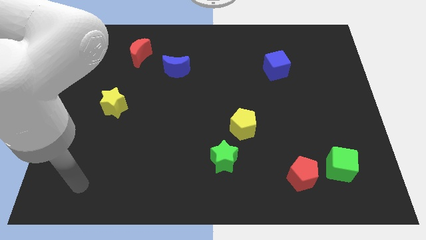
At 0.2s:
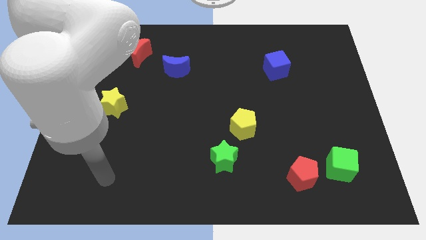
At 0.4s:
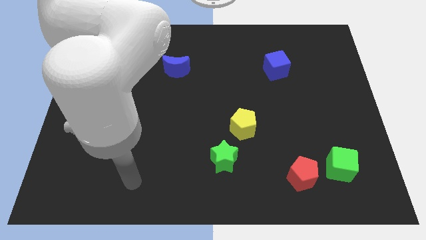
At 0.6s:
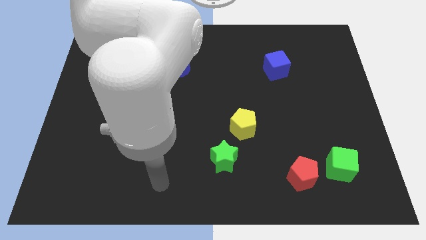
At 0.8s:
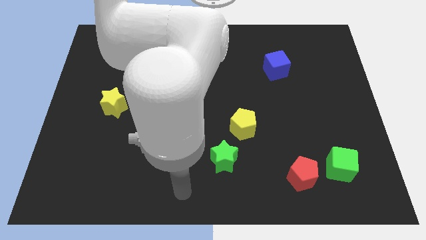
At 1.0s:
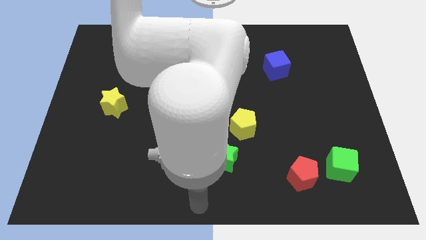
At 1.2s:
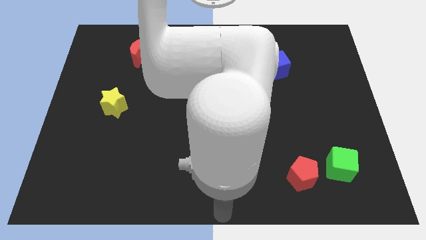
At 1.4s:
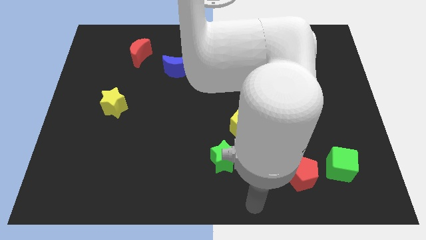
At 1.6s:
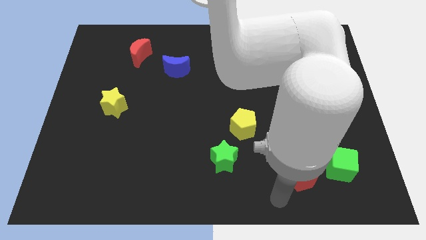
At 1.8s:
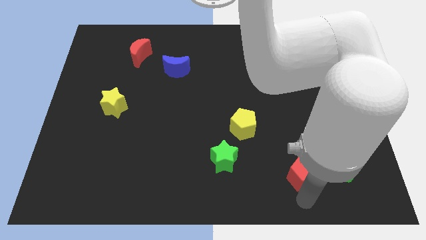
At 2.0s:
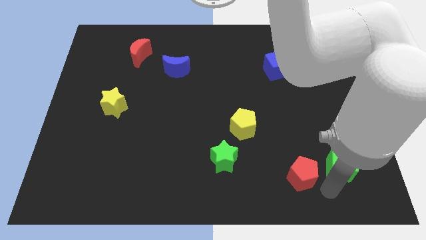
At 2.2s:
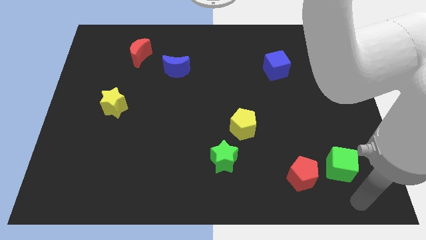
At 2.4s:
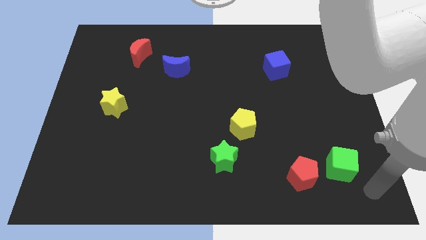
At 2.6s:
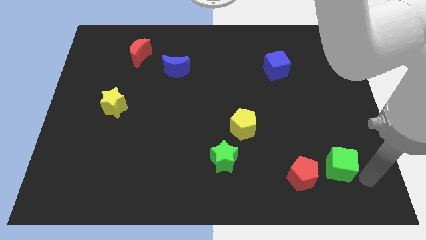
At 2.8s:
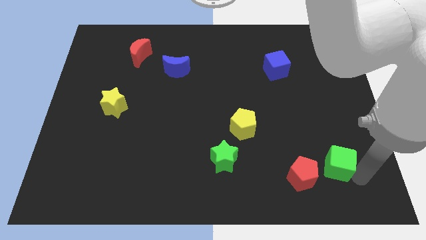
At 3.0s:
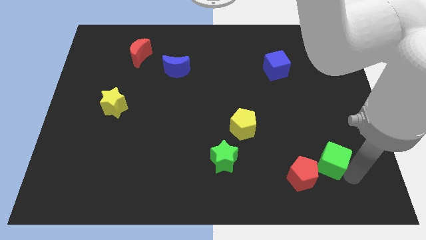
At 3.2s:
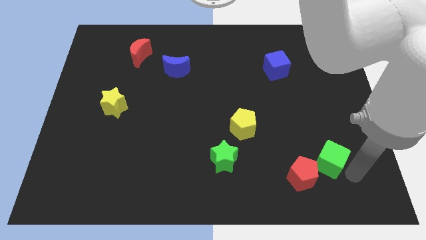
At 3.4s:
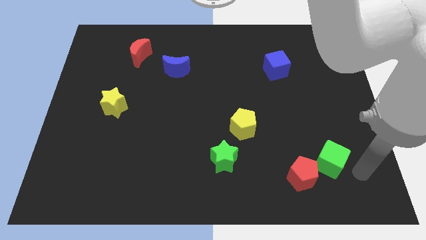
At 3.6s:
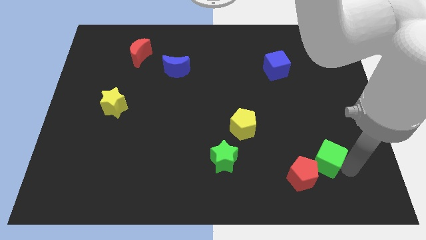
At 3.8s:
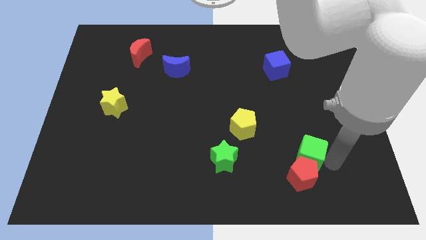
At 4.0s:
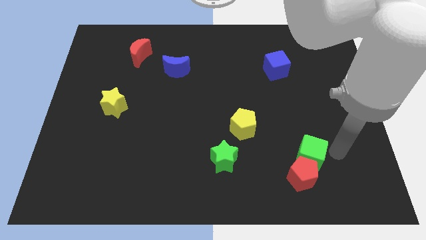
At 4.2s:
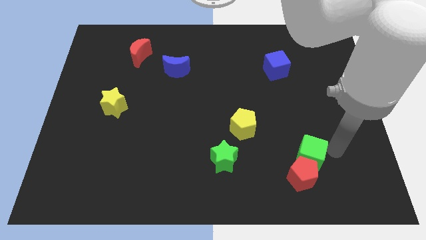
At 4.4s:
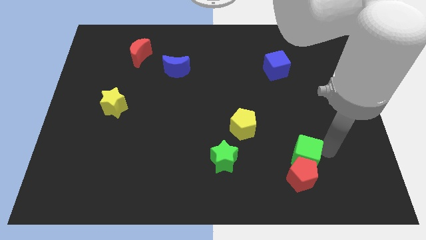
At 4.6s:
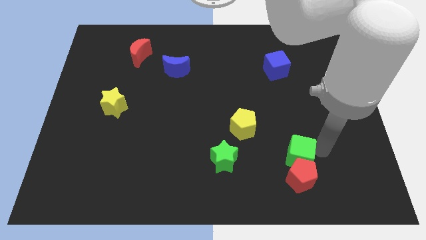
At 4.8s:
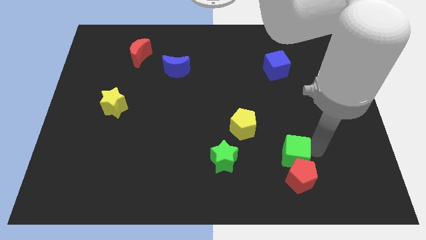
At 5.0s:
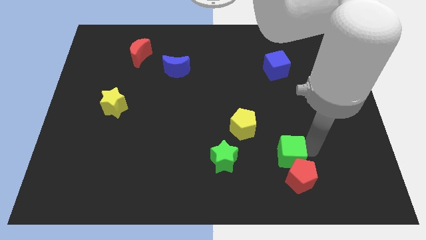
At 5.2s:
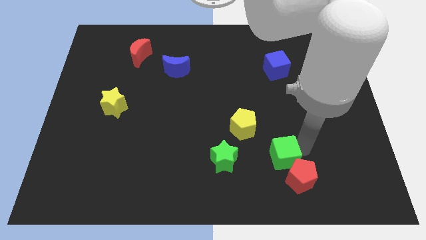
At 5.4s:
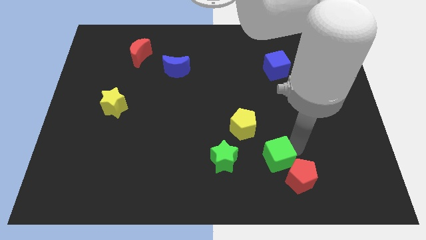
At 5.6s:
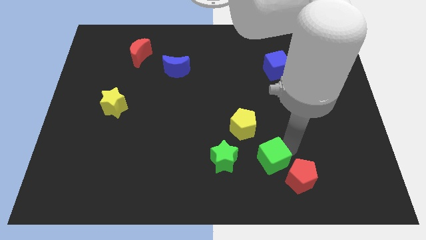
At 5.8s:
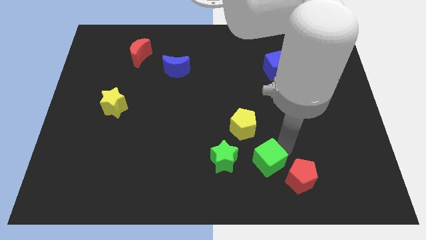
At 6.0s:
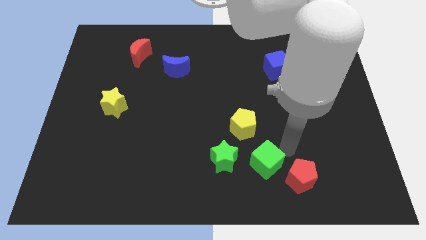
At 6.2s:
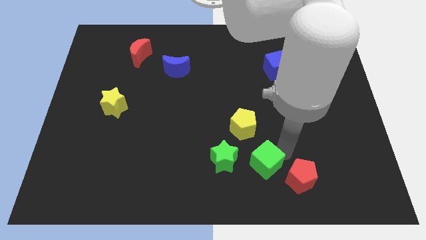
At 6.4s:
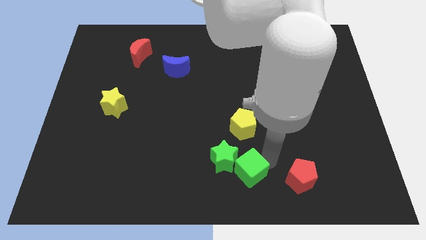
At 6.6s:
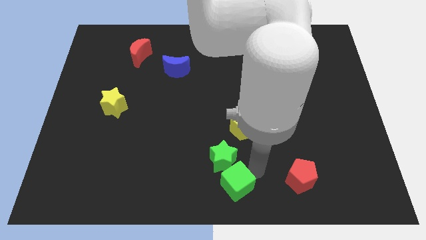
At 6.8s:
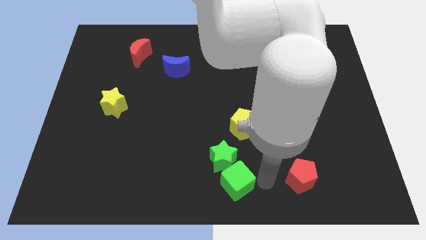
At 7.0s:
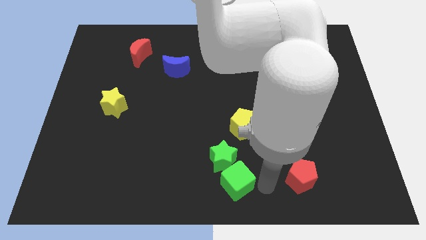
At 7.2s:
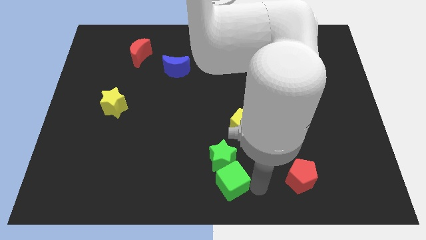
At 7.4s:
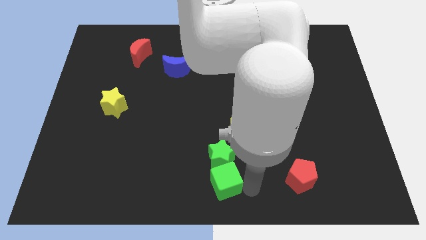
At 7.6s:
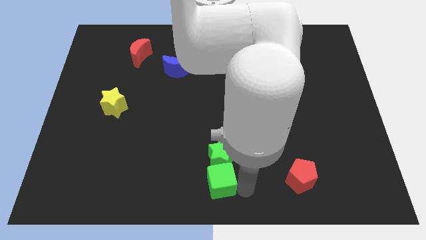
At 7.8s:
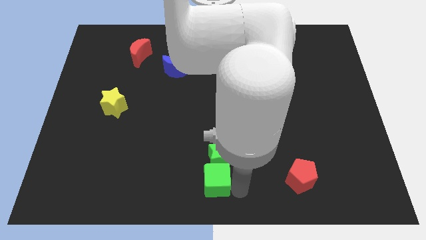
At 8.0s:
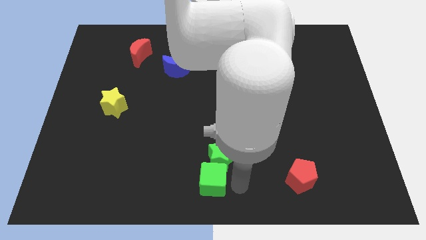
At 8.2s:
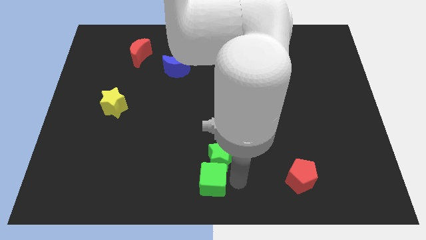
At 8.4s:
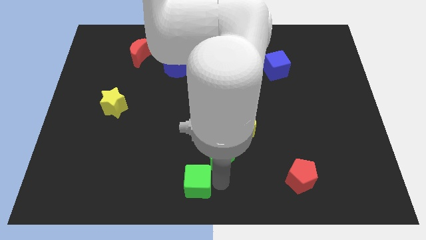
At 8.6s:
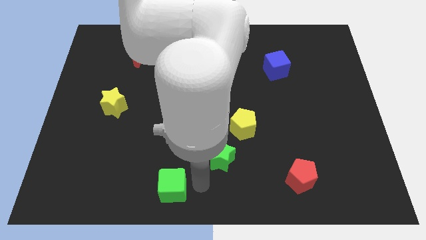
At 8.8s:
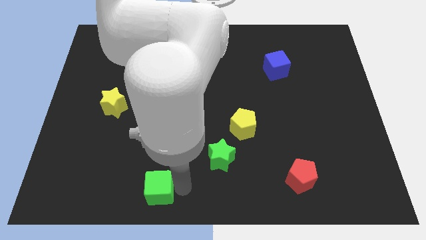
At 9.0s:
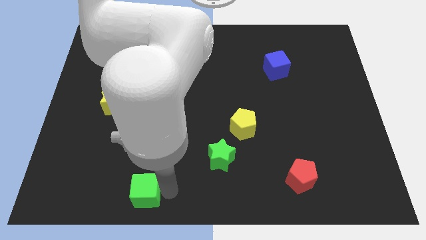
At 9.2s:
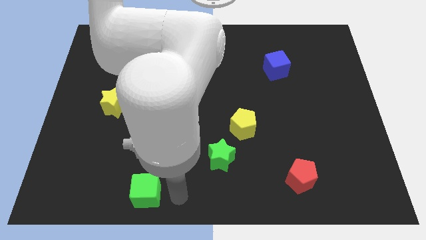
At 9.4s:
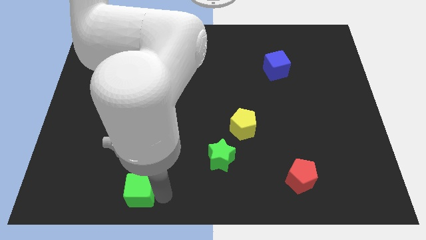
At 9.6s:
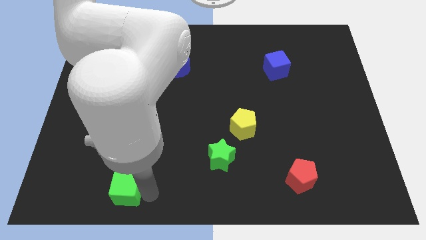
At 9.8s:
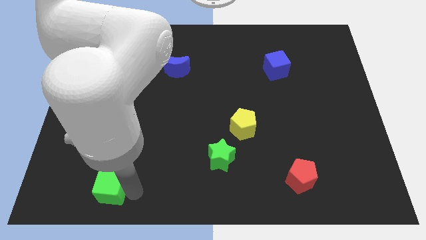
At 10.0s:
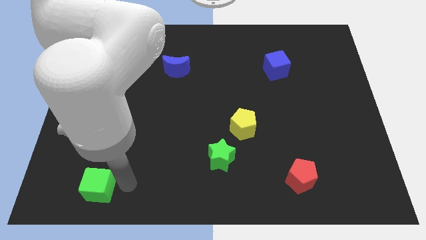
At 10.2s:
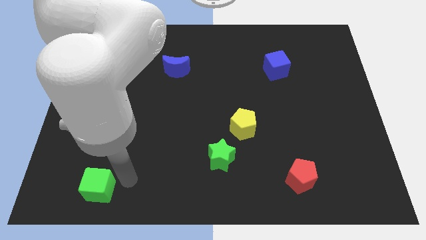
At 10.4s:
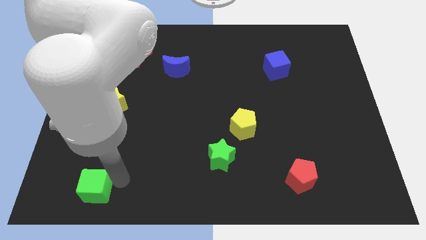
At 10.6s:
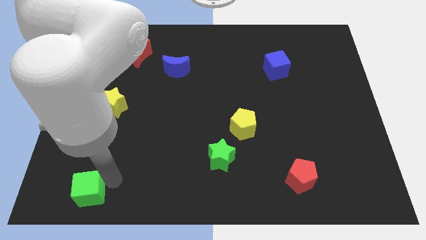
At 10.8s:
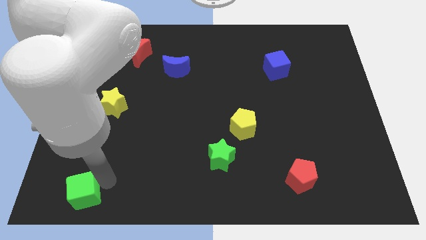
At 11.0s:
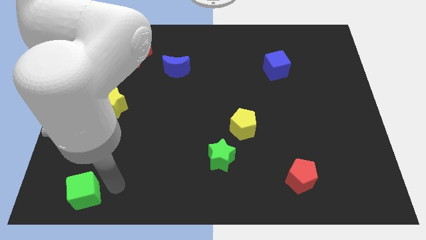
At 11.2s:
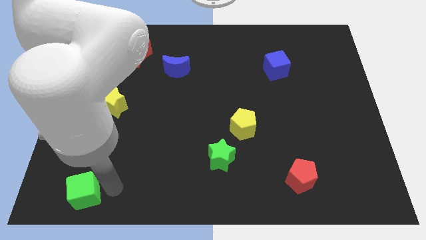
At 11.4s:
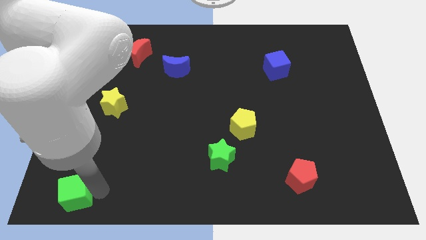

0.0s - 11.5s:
push the green cube to the bottom left

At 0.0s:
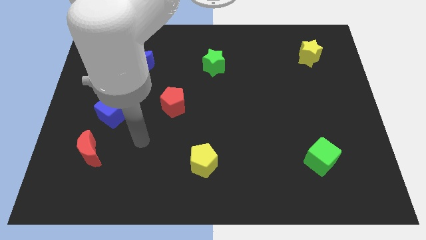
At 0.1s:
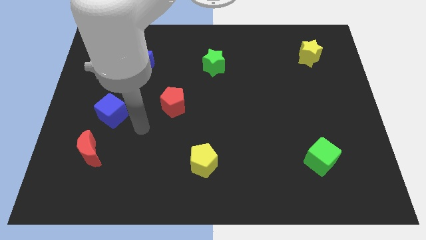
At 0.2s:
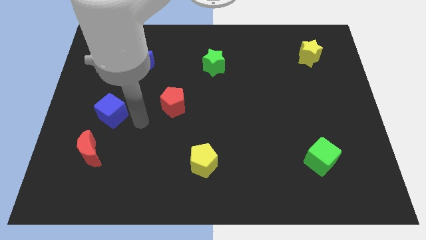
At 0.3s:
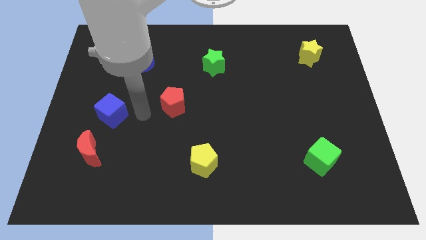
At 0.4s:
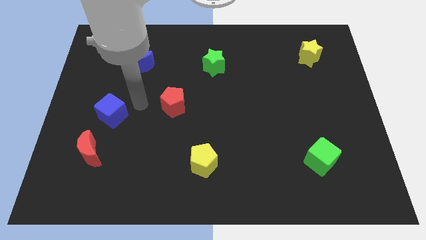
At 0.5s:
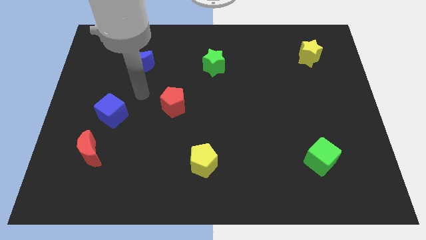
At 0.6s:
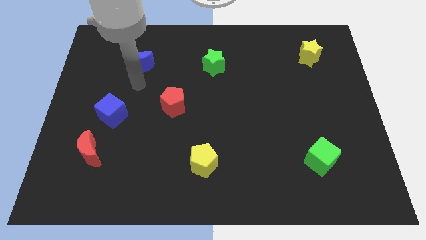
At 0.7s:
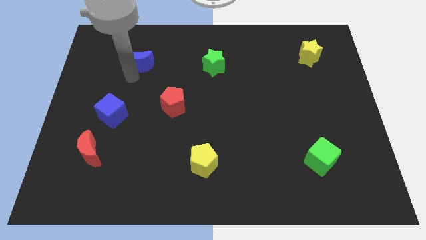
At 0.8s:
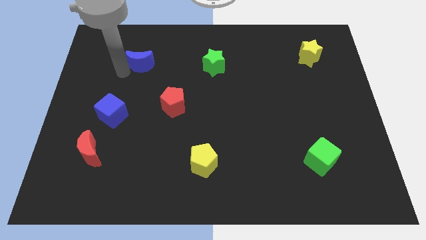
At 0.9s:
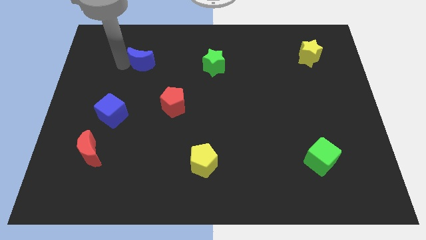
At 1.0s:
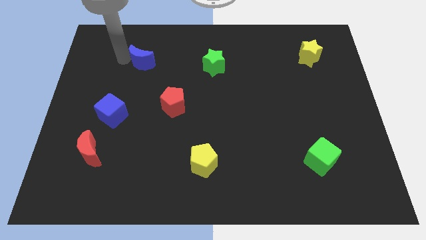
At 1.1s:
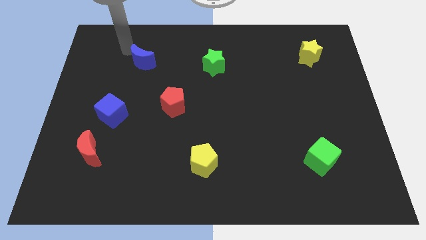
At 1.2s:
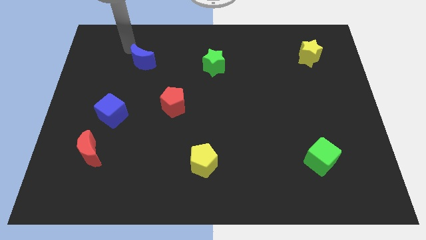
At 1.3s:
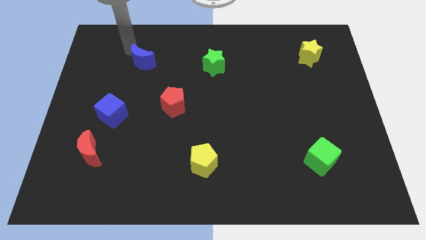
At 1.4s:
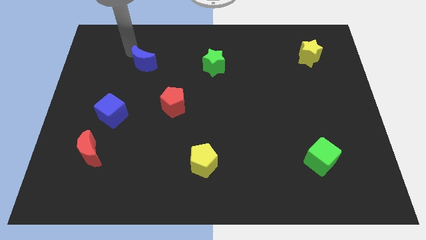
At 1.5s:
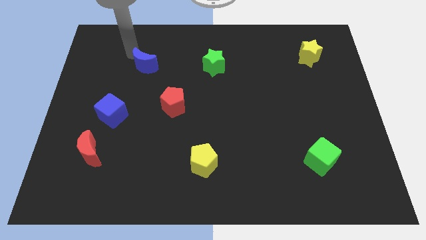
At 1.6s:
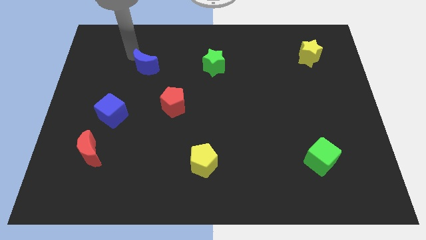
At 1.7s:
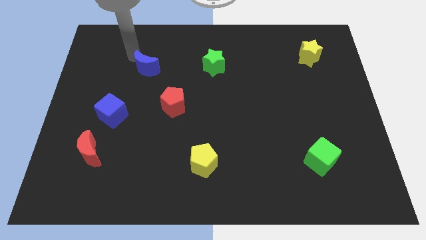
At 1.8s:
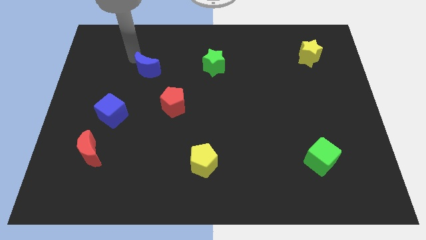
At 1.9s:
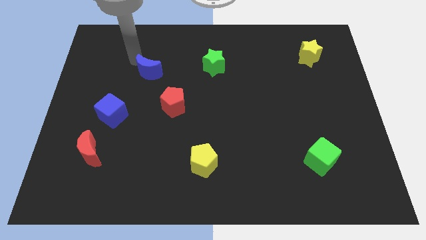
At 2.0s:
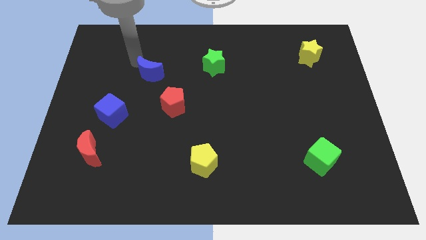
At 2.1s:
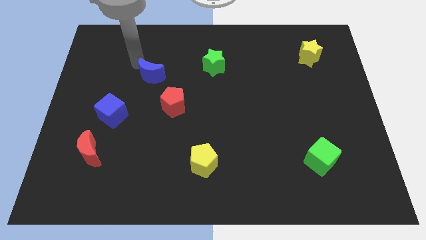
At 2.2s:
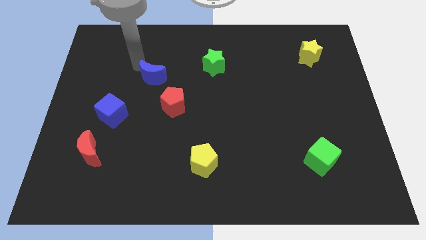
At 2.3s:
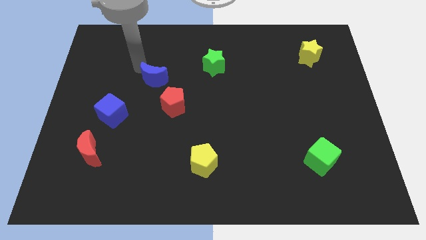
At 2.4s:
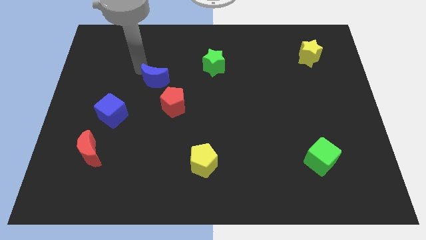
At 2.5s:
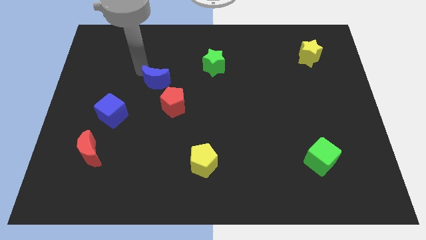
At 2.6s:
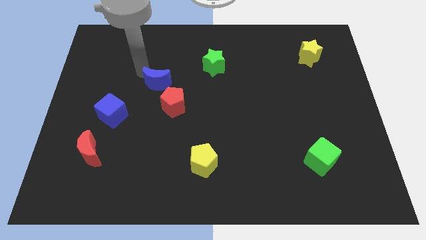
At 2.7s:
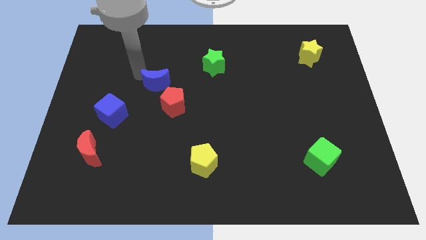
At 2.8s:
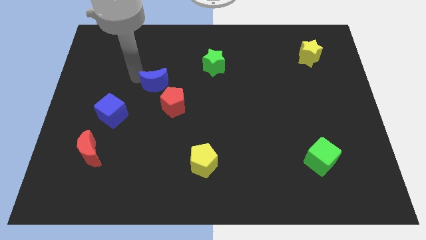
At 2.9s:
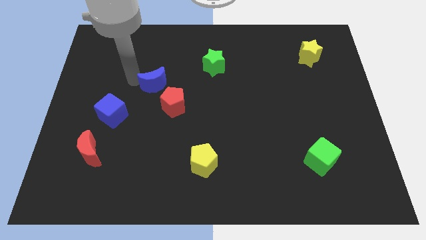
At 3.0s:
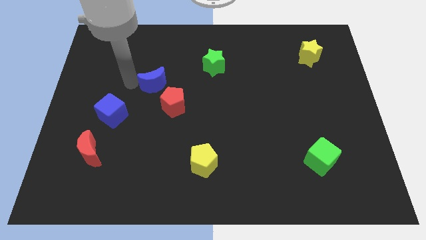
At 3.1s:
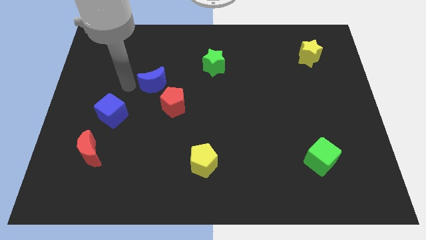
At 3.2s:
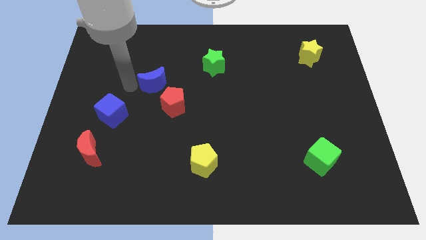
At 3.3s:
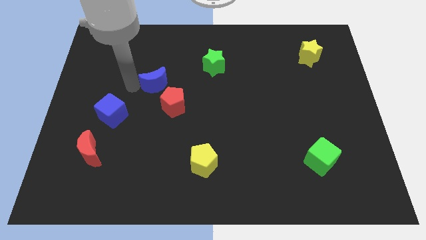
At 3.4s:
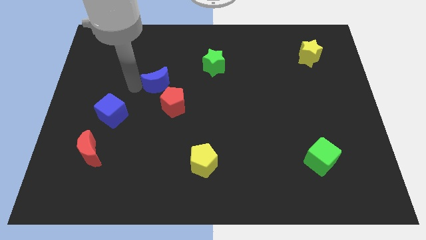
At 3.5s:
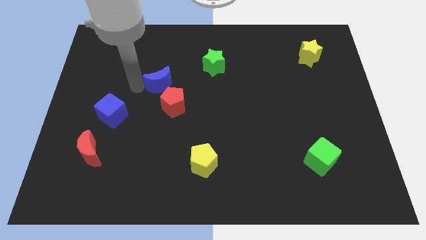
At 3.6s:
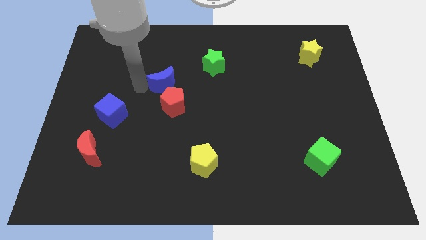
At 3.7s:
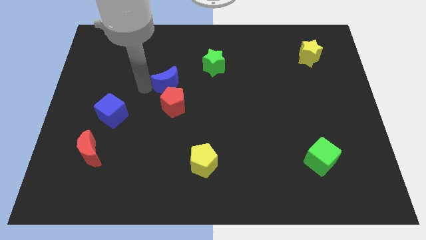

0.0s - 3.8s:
move the blue moon to the middle of the board
